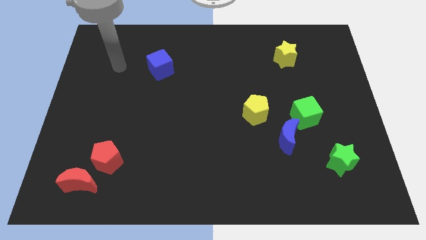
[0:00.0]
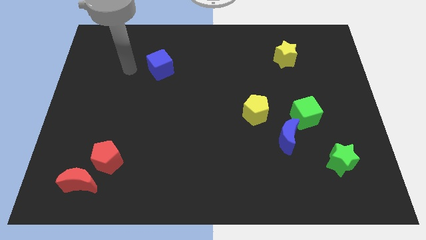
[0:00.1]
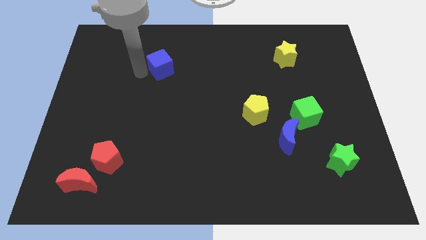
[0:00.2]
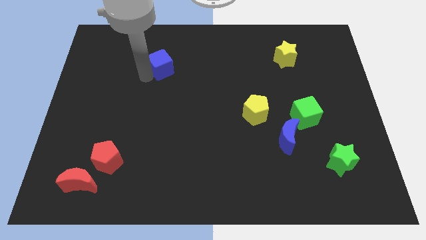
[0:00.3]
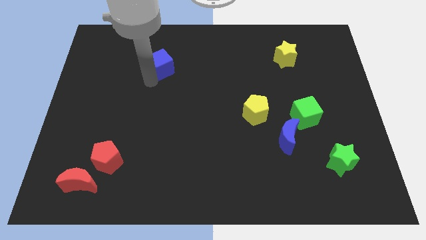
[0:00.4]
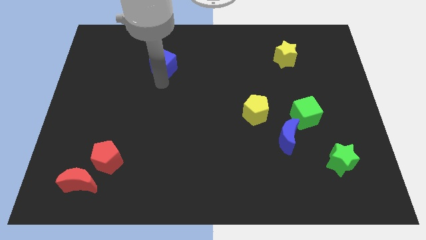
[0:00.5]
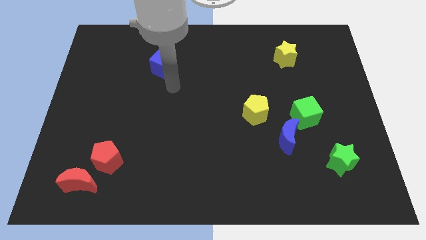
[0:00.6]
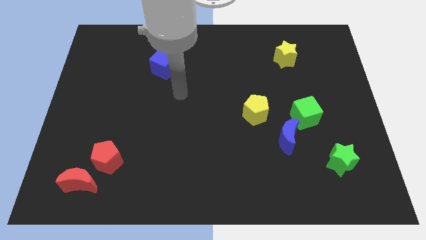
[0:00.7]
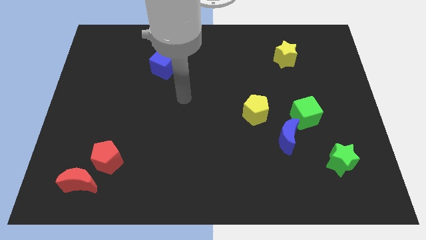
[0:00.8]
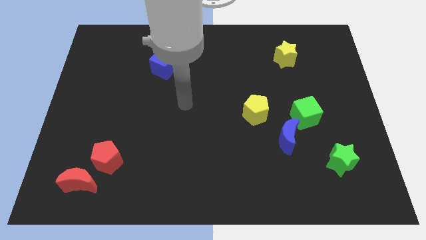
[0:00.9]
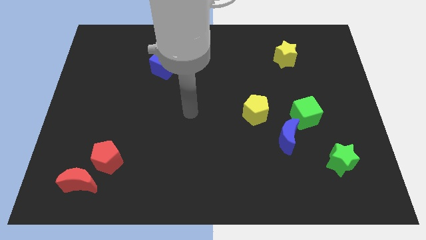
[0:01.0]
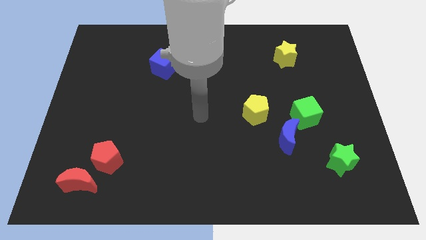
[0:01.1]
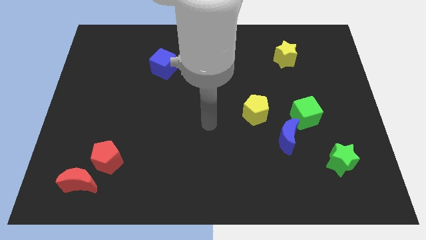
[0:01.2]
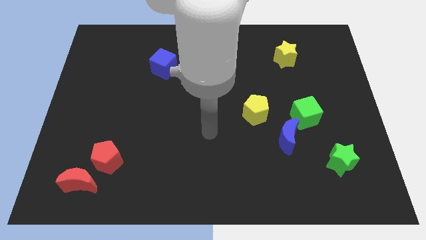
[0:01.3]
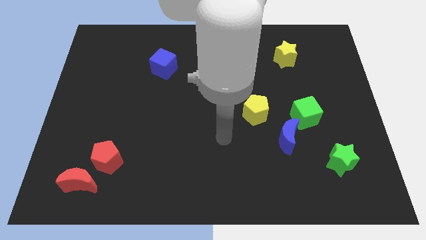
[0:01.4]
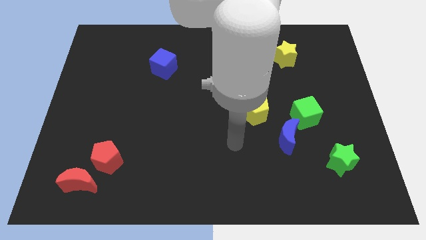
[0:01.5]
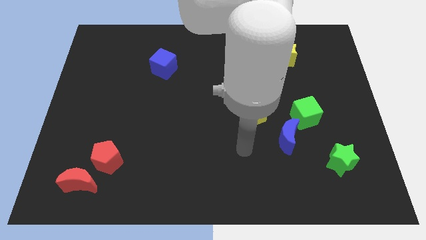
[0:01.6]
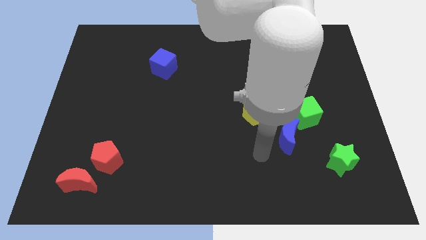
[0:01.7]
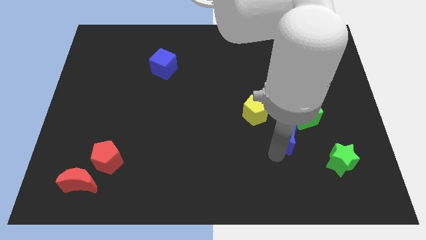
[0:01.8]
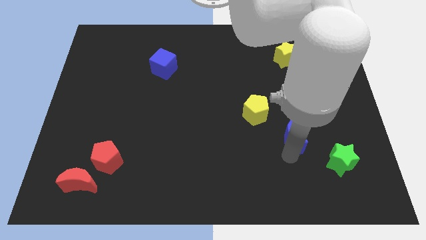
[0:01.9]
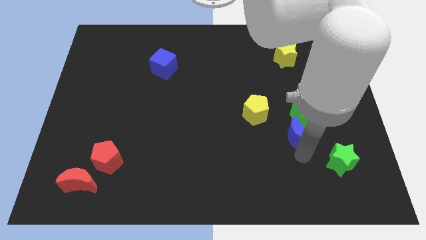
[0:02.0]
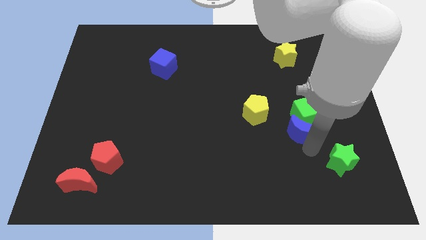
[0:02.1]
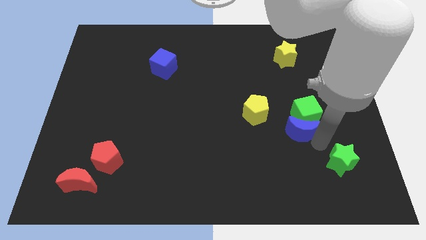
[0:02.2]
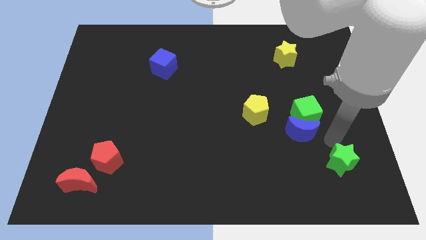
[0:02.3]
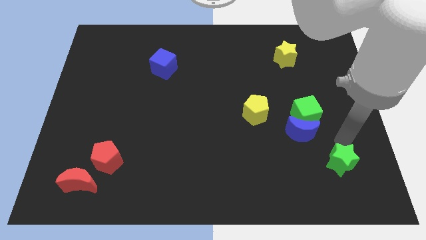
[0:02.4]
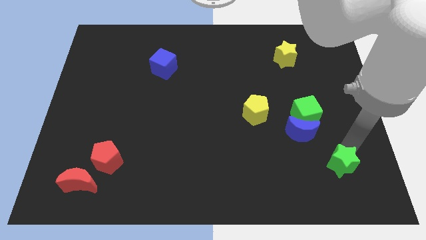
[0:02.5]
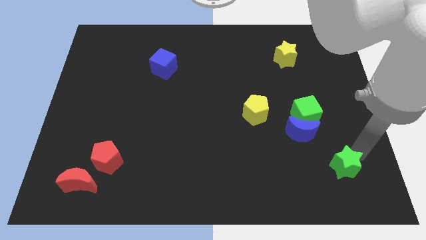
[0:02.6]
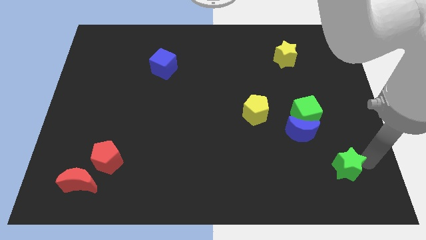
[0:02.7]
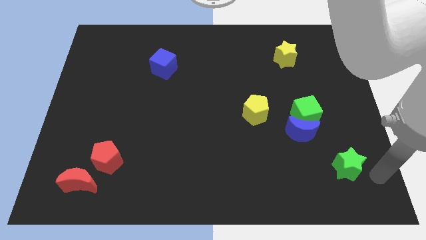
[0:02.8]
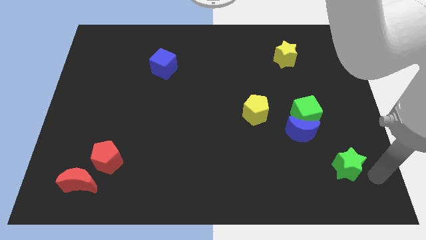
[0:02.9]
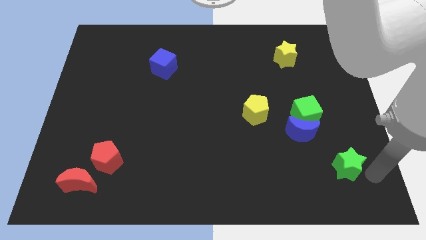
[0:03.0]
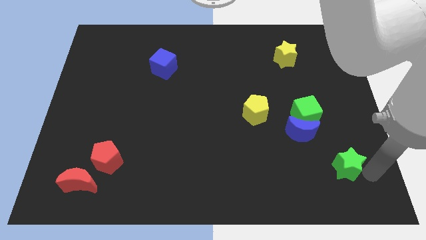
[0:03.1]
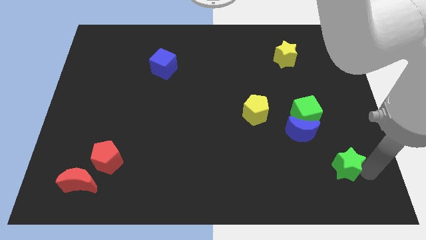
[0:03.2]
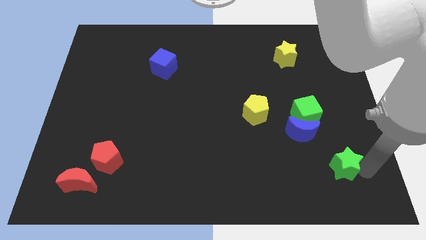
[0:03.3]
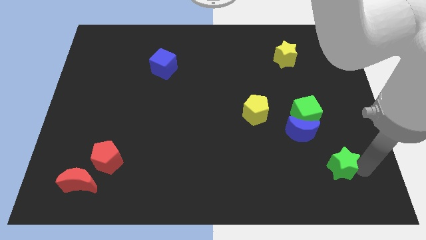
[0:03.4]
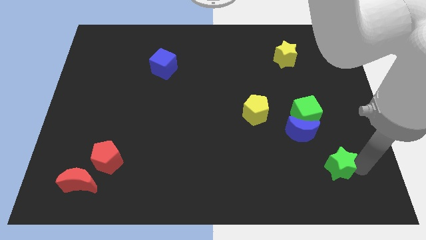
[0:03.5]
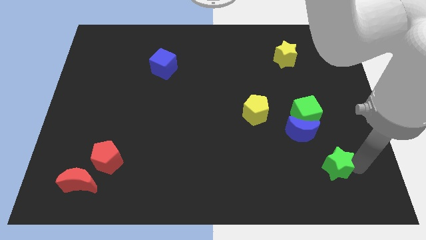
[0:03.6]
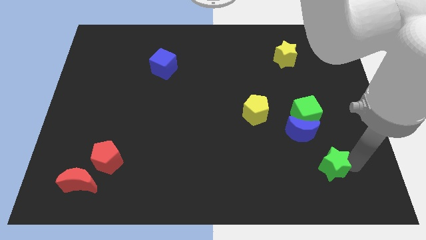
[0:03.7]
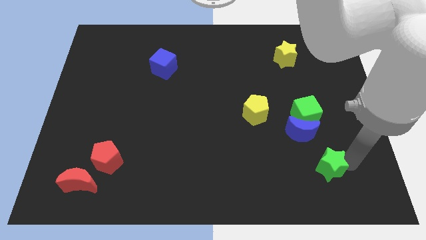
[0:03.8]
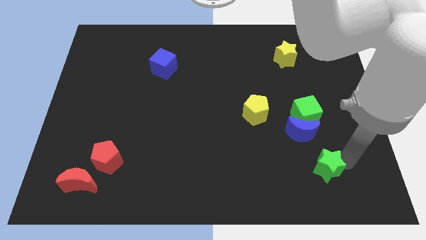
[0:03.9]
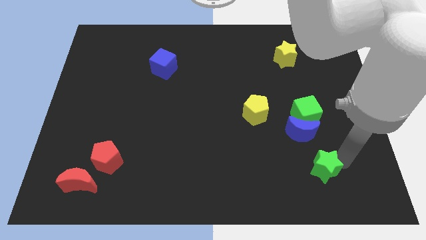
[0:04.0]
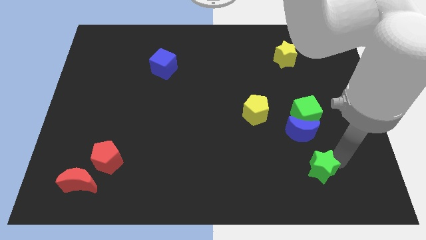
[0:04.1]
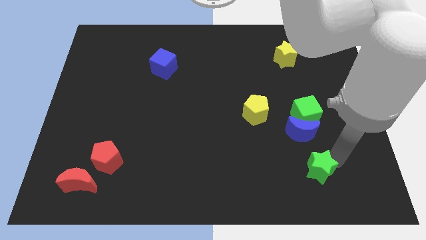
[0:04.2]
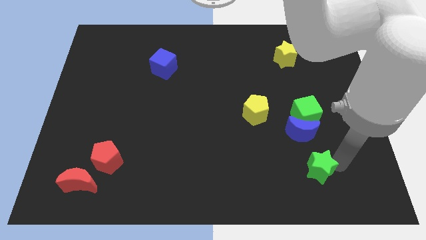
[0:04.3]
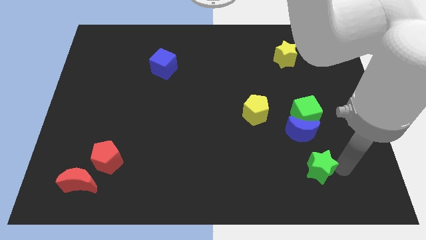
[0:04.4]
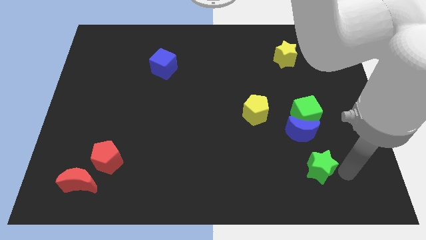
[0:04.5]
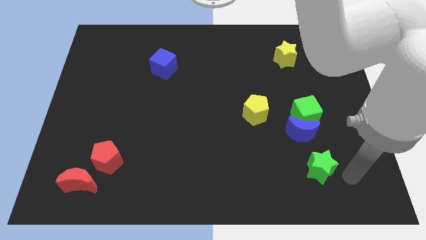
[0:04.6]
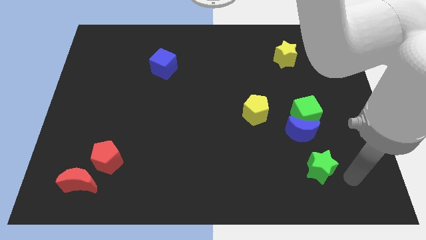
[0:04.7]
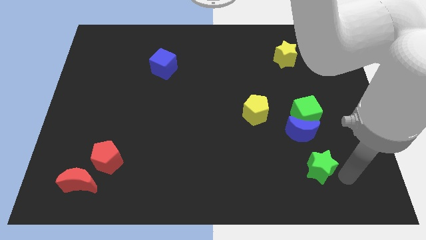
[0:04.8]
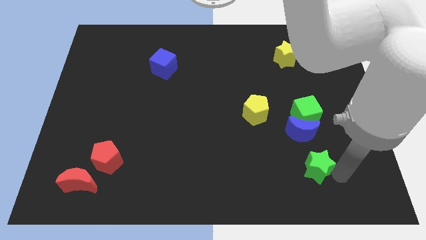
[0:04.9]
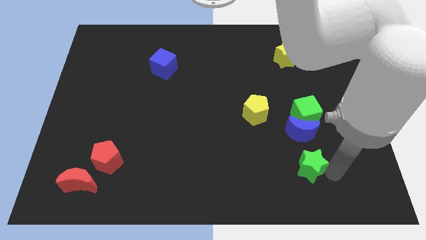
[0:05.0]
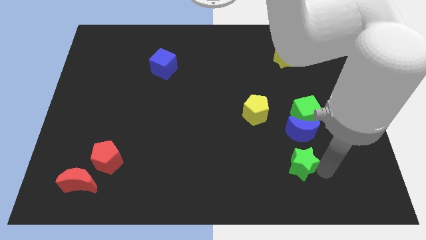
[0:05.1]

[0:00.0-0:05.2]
move the green star to the left a little

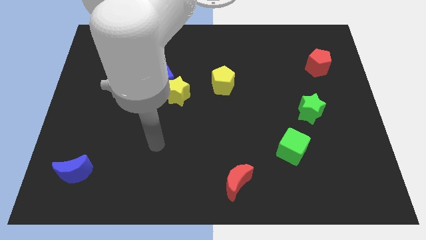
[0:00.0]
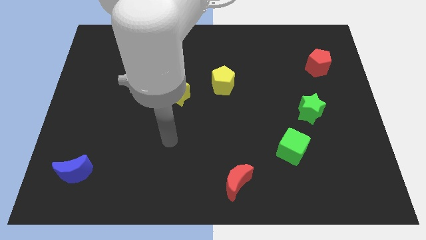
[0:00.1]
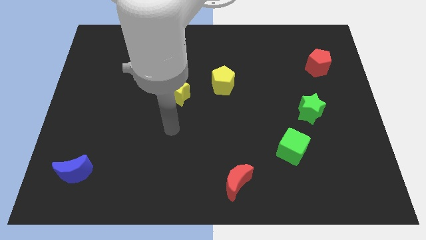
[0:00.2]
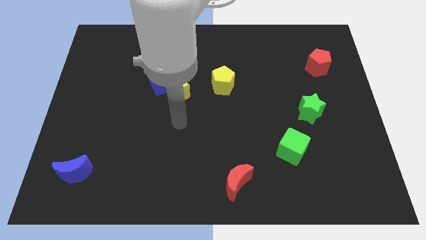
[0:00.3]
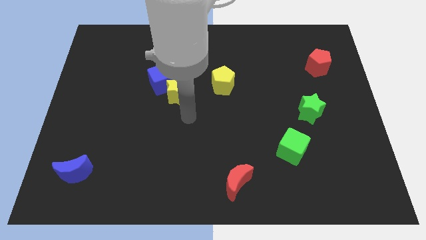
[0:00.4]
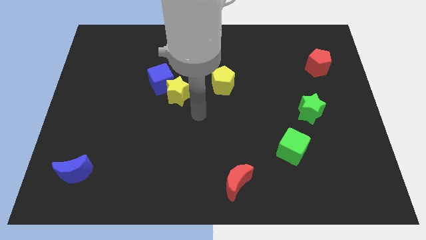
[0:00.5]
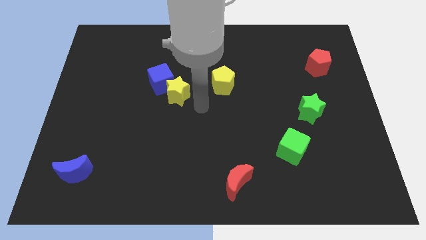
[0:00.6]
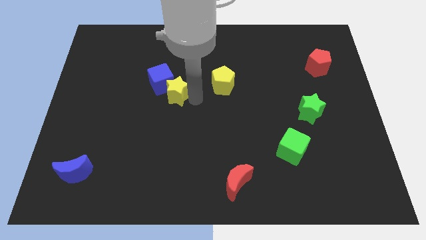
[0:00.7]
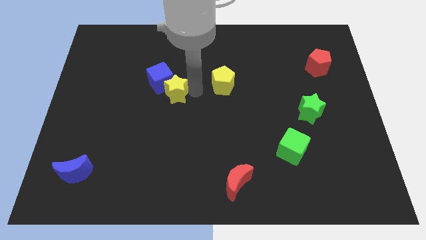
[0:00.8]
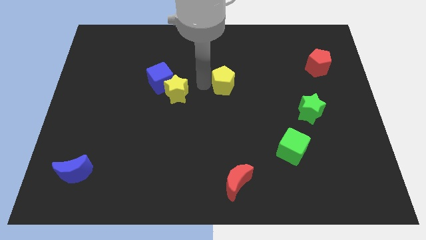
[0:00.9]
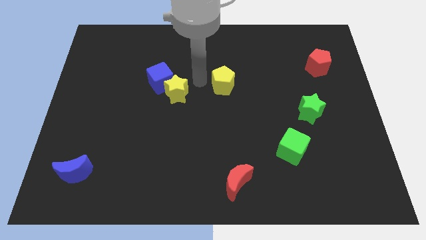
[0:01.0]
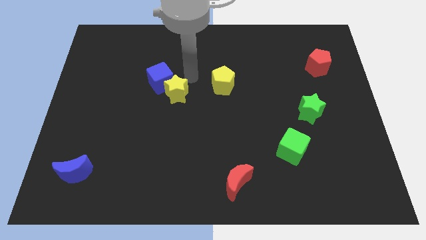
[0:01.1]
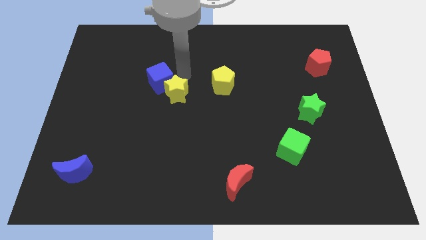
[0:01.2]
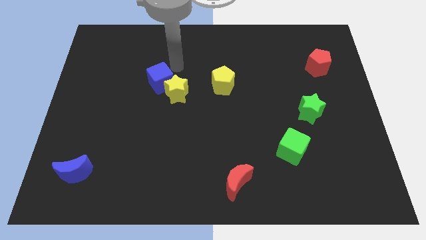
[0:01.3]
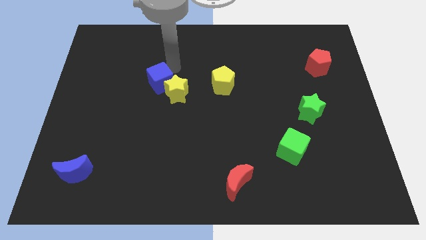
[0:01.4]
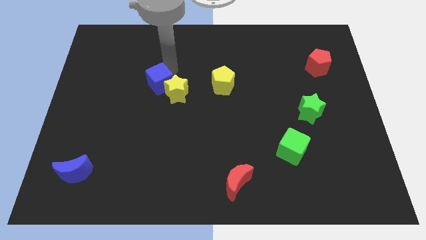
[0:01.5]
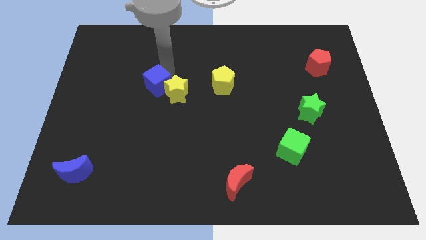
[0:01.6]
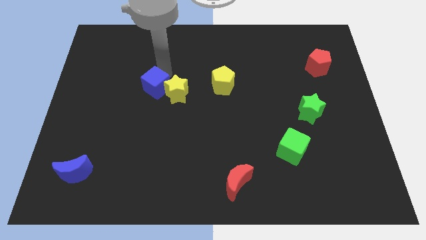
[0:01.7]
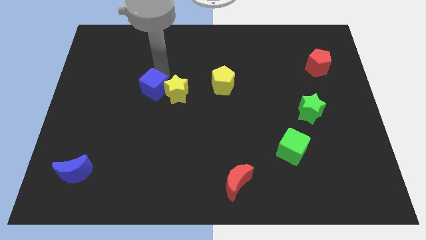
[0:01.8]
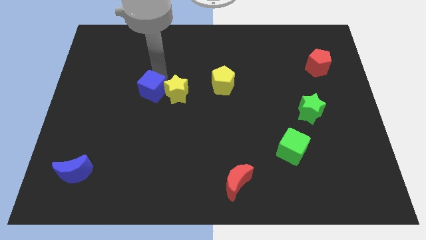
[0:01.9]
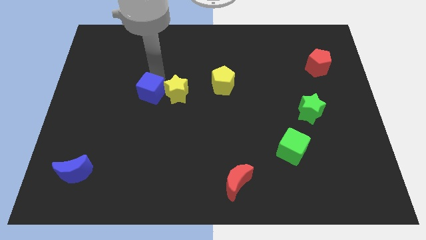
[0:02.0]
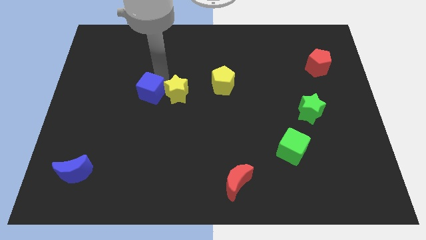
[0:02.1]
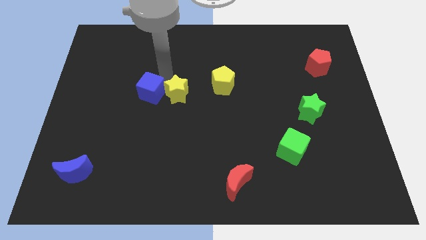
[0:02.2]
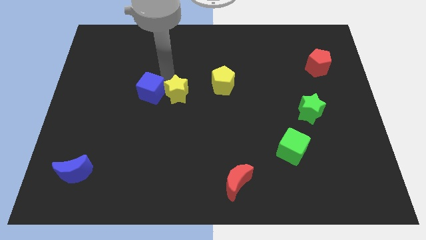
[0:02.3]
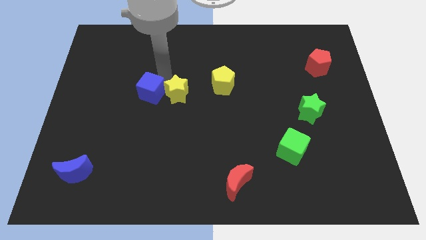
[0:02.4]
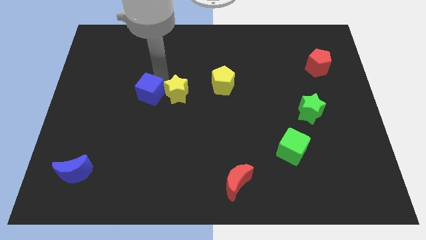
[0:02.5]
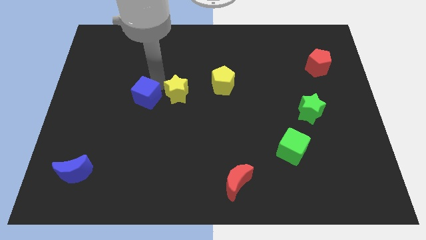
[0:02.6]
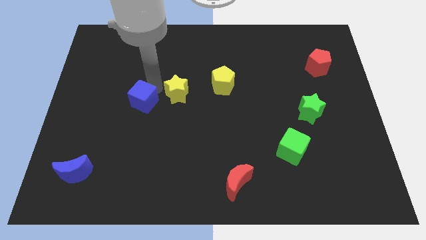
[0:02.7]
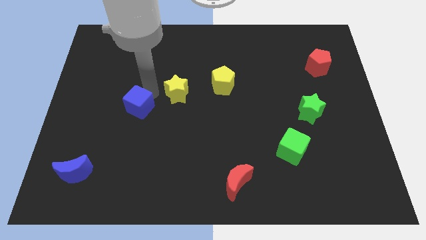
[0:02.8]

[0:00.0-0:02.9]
slide the blue cube downwards and left diagonally a little

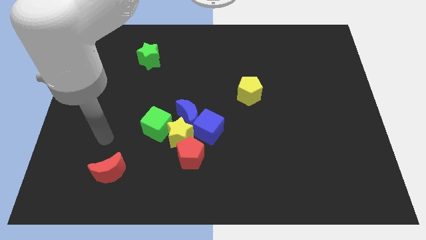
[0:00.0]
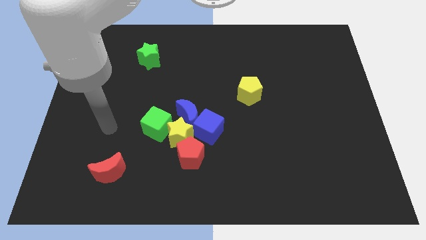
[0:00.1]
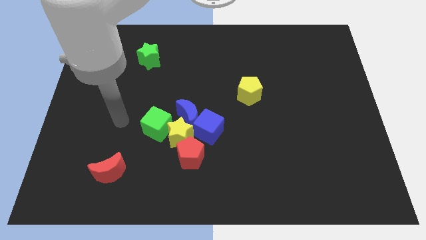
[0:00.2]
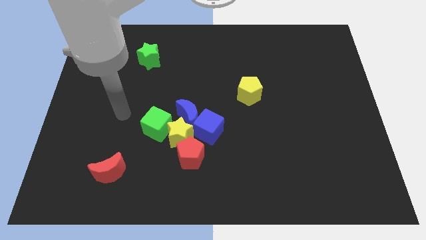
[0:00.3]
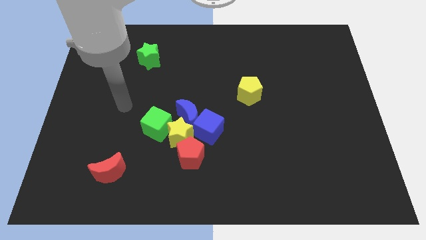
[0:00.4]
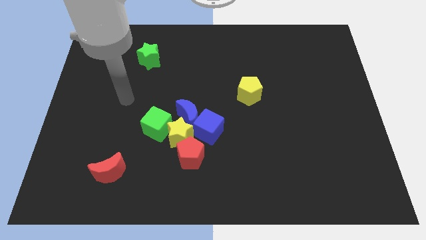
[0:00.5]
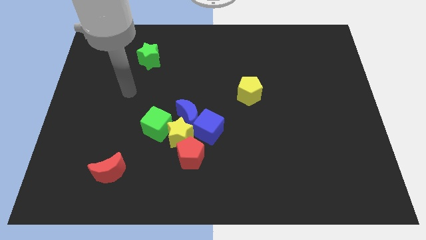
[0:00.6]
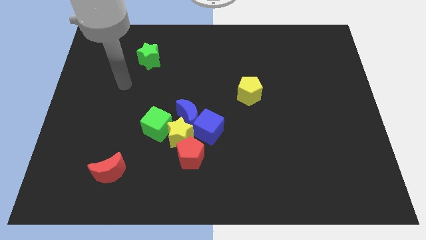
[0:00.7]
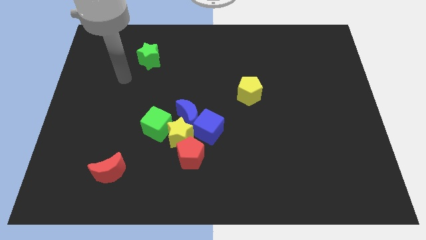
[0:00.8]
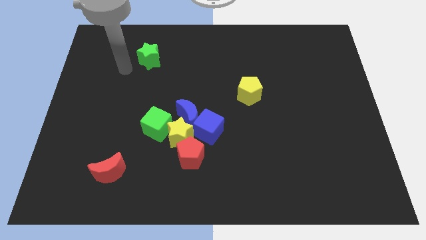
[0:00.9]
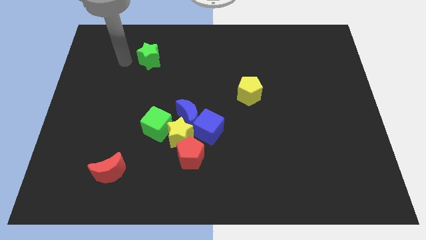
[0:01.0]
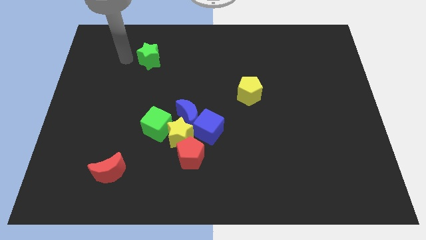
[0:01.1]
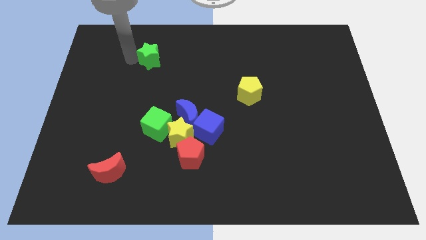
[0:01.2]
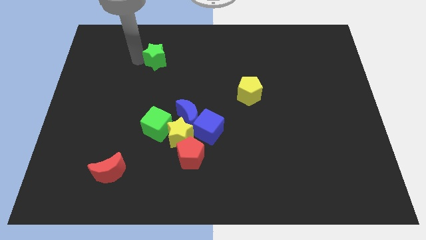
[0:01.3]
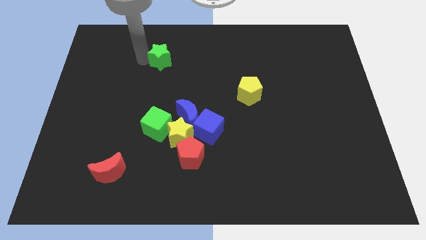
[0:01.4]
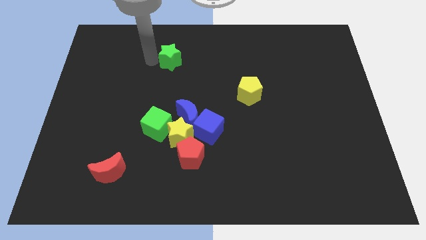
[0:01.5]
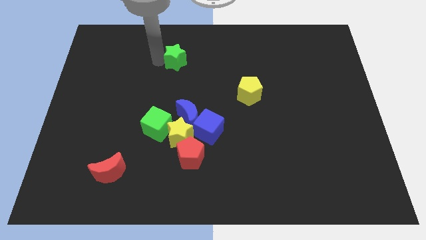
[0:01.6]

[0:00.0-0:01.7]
move the green star a bit right
